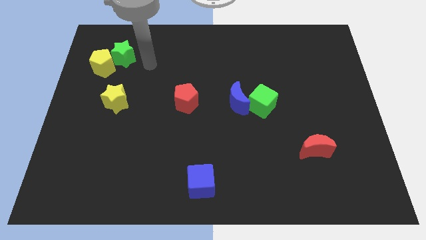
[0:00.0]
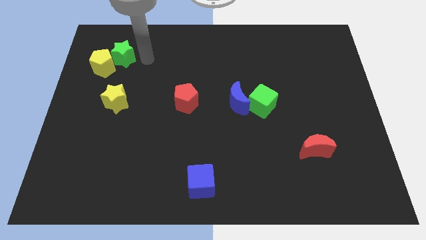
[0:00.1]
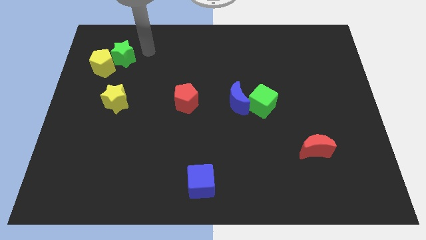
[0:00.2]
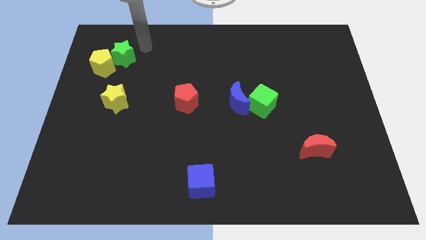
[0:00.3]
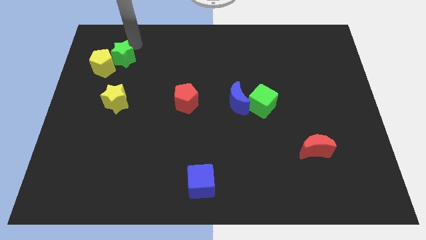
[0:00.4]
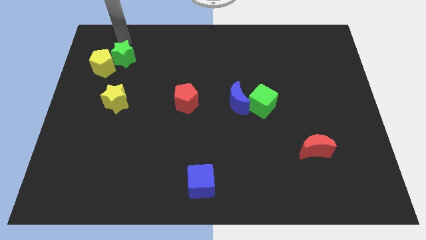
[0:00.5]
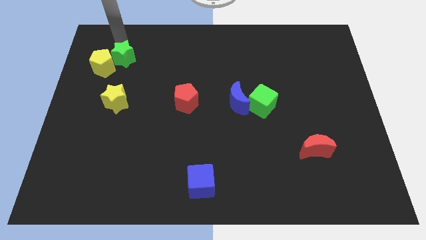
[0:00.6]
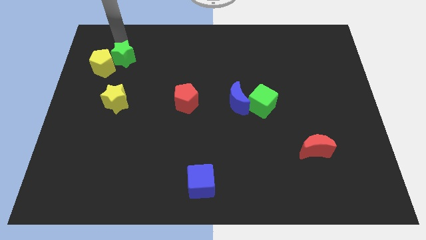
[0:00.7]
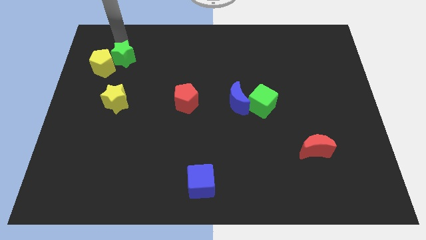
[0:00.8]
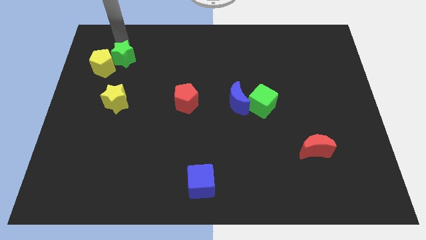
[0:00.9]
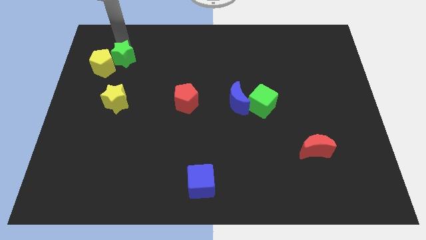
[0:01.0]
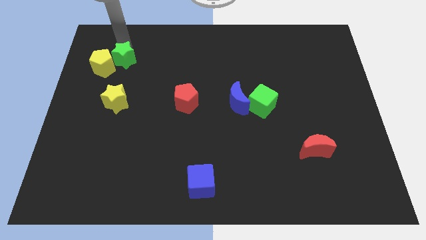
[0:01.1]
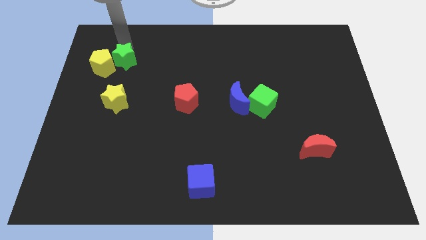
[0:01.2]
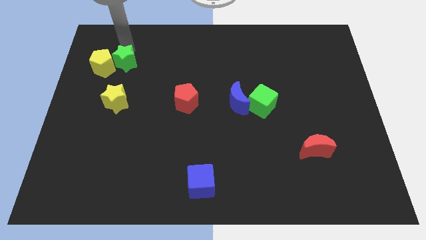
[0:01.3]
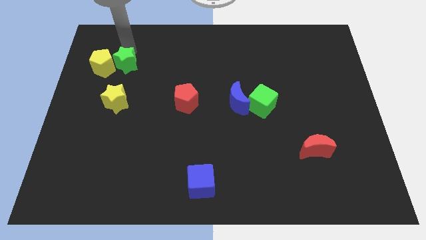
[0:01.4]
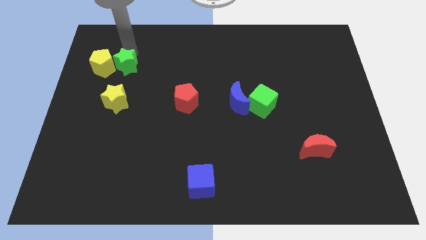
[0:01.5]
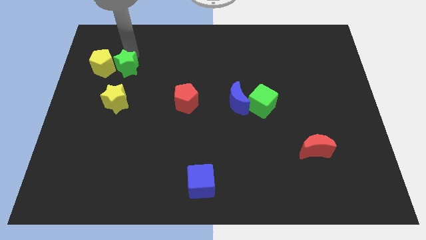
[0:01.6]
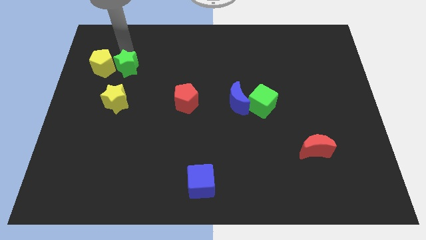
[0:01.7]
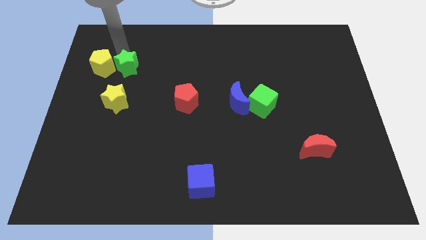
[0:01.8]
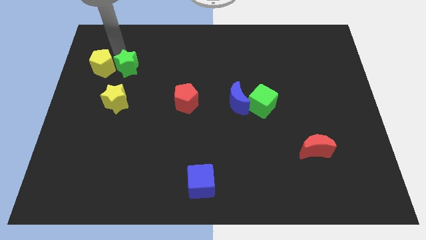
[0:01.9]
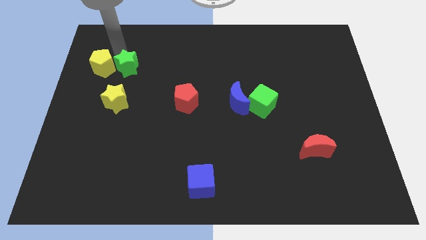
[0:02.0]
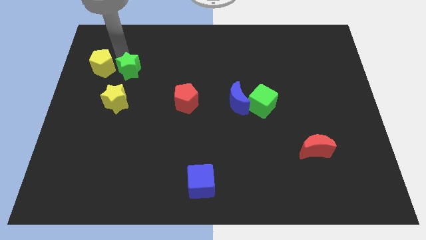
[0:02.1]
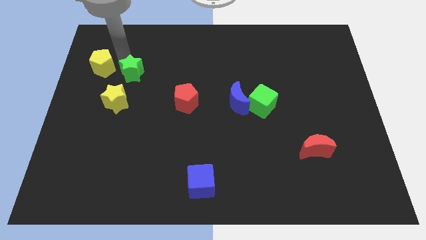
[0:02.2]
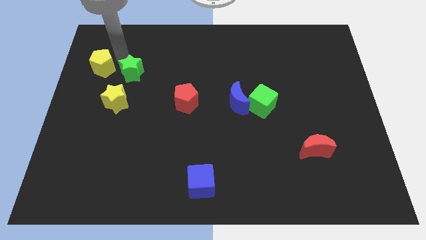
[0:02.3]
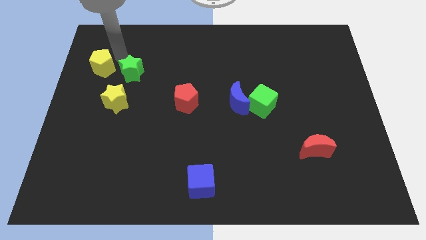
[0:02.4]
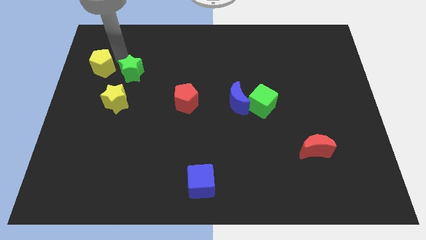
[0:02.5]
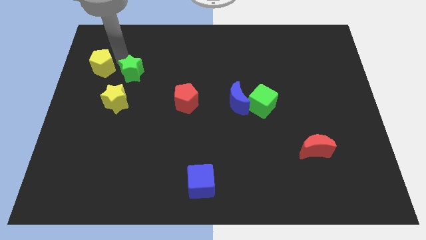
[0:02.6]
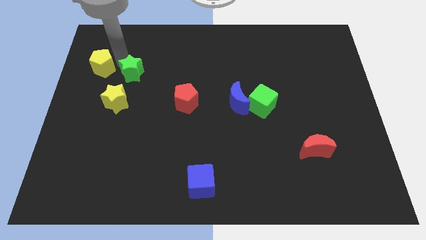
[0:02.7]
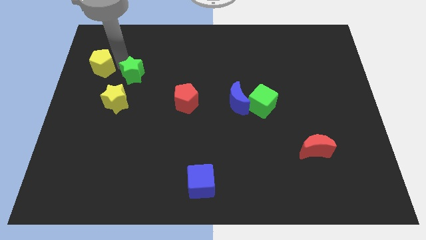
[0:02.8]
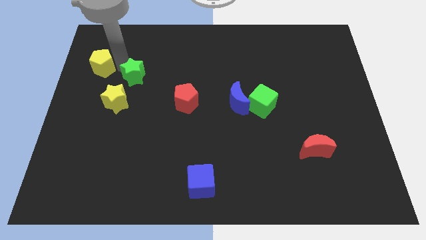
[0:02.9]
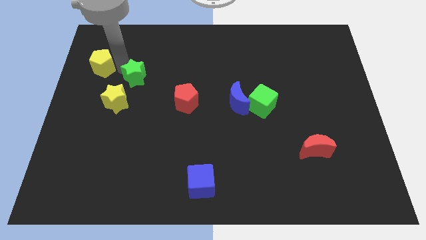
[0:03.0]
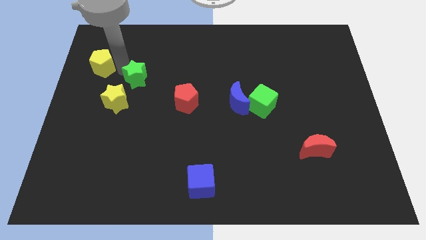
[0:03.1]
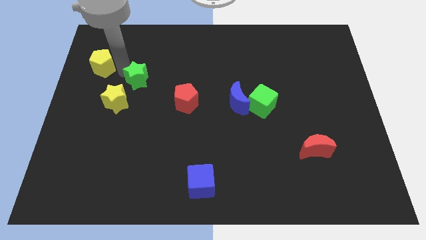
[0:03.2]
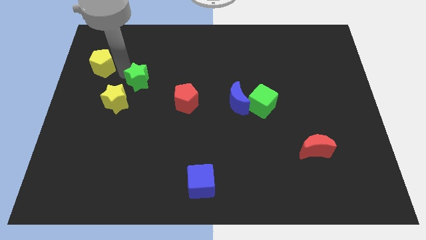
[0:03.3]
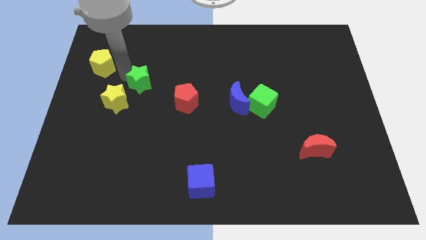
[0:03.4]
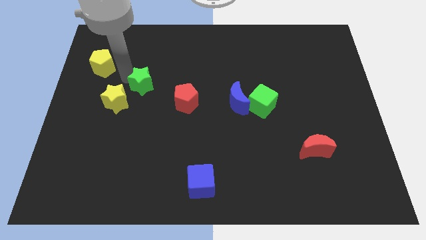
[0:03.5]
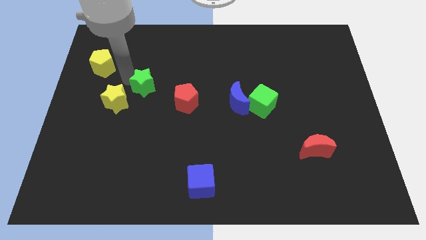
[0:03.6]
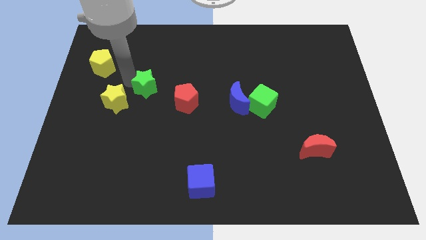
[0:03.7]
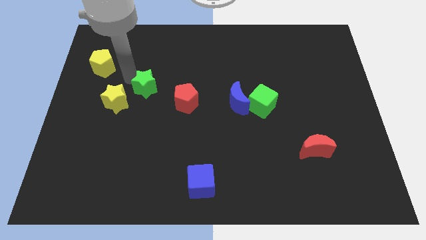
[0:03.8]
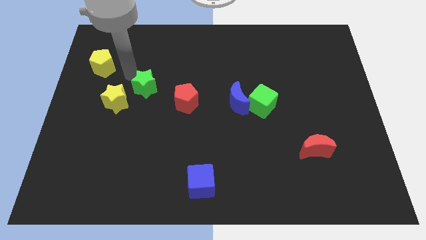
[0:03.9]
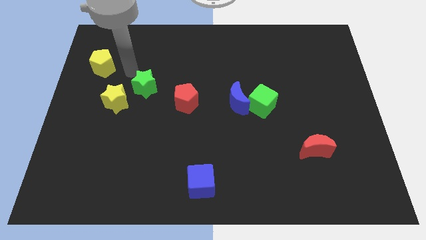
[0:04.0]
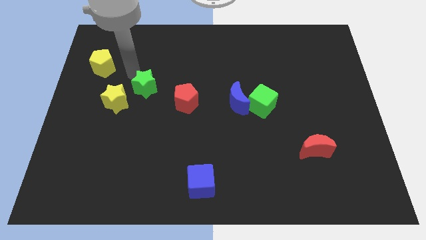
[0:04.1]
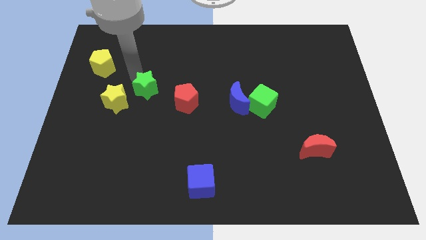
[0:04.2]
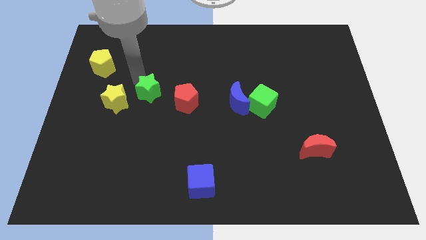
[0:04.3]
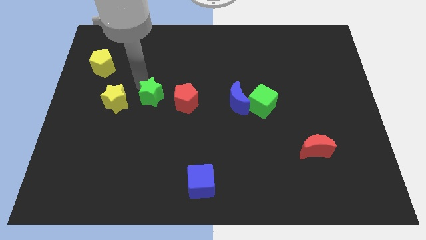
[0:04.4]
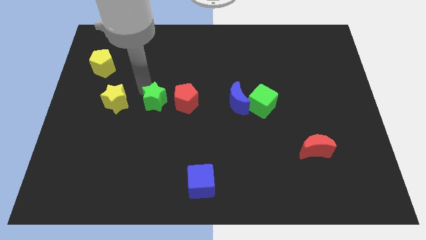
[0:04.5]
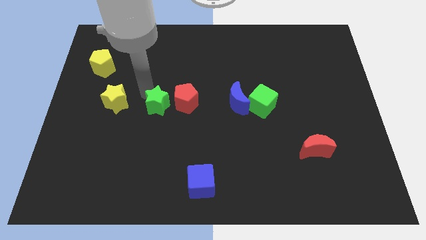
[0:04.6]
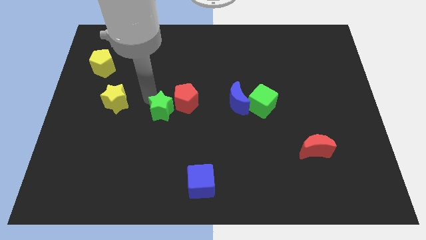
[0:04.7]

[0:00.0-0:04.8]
move the green star down and then right

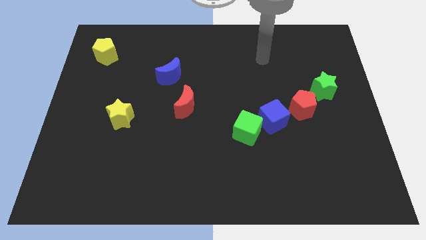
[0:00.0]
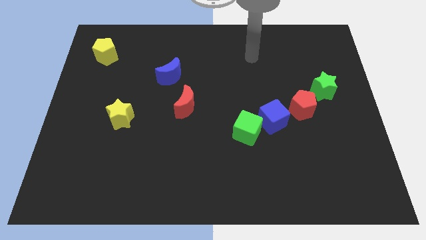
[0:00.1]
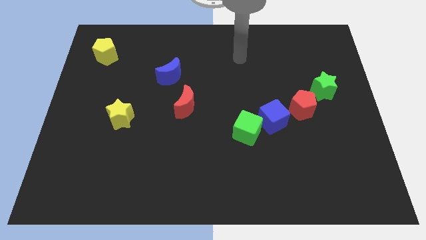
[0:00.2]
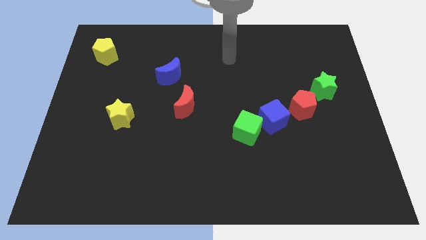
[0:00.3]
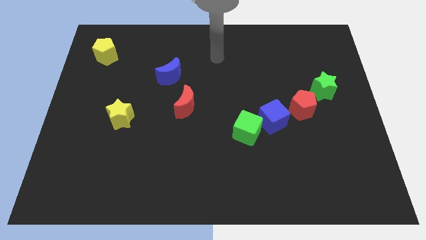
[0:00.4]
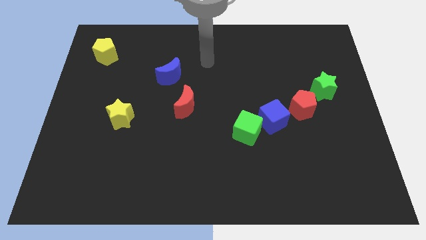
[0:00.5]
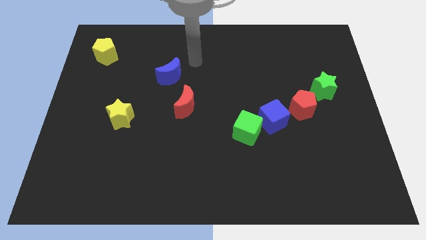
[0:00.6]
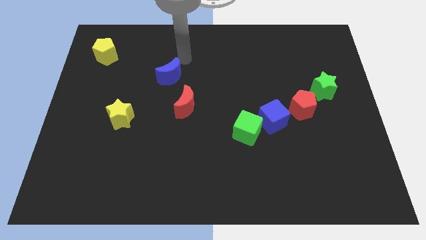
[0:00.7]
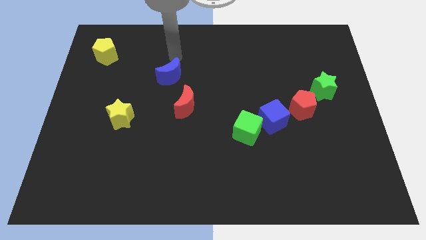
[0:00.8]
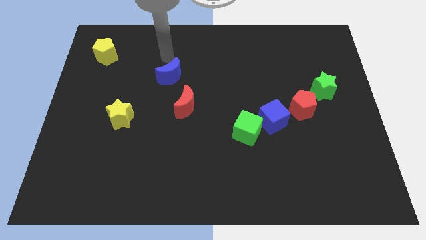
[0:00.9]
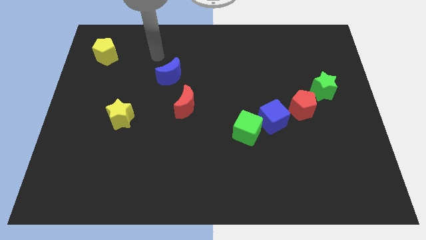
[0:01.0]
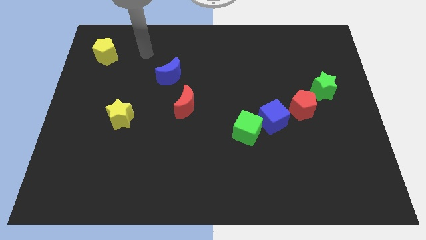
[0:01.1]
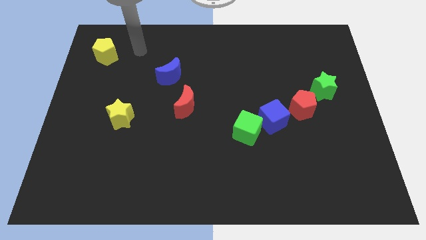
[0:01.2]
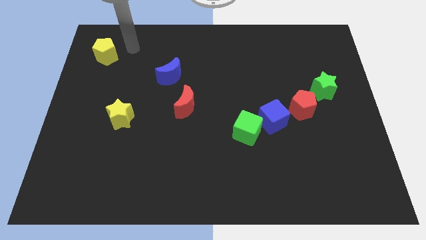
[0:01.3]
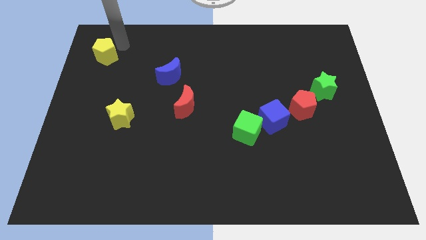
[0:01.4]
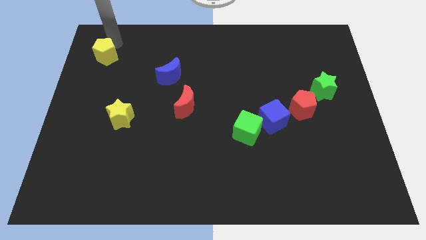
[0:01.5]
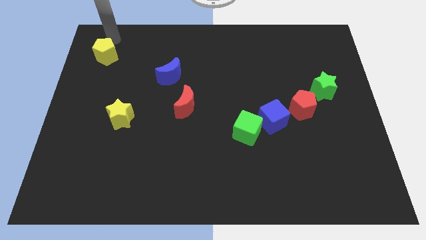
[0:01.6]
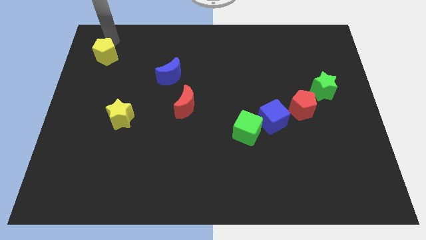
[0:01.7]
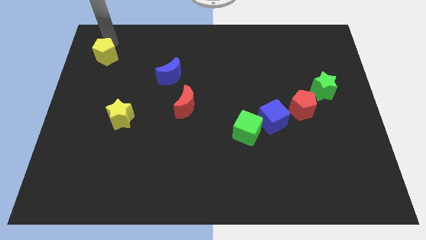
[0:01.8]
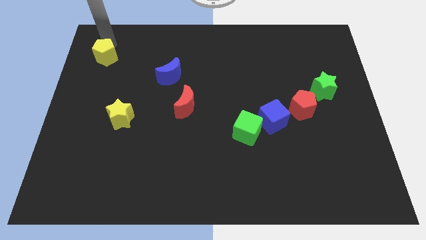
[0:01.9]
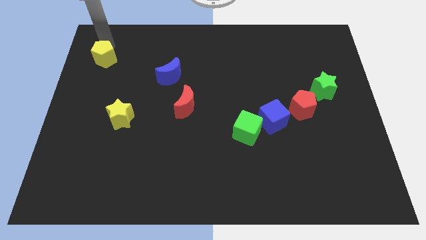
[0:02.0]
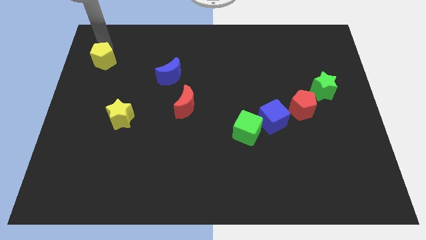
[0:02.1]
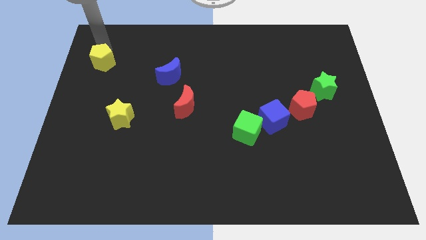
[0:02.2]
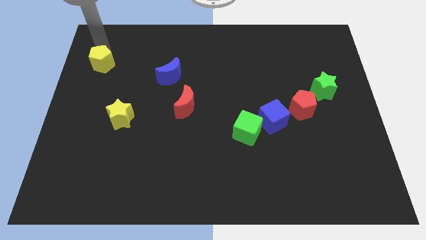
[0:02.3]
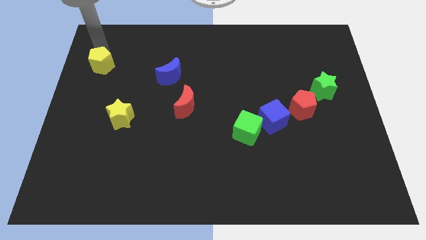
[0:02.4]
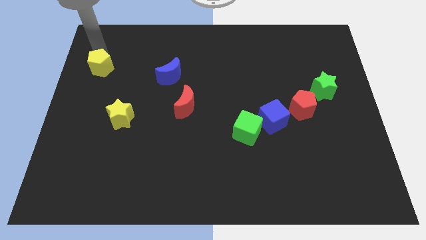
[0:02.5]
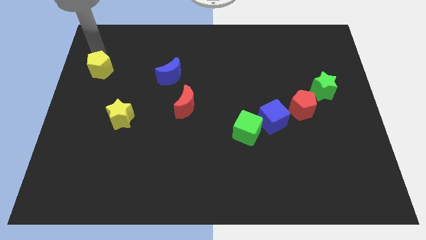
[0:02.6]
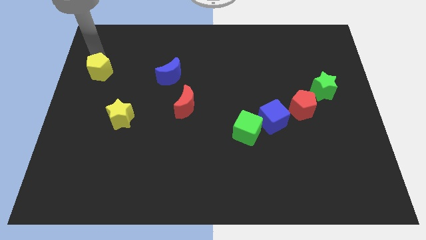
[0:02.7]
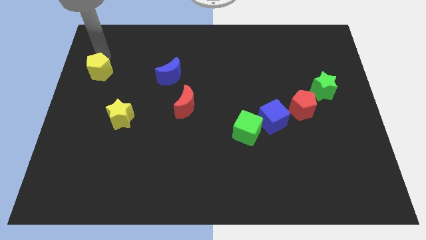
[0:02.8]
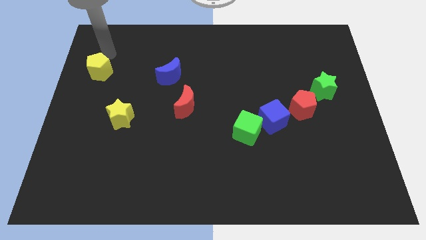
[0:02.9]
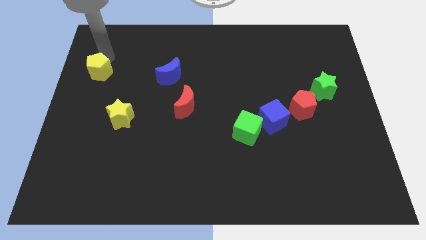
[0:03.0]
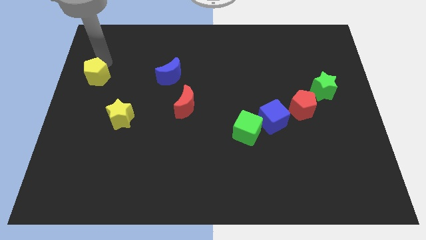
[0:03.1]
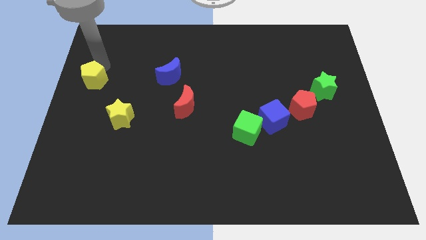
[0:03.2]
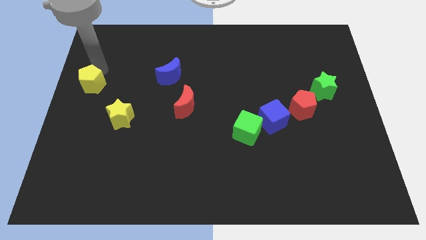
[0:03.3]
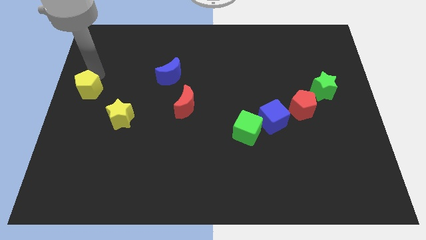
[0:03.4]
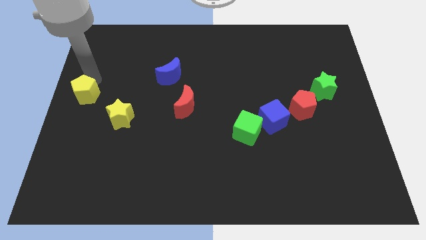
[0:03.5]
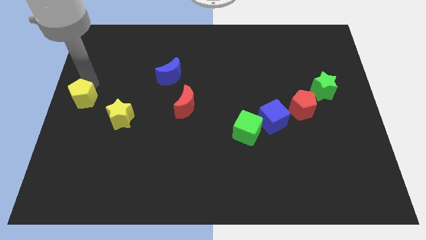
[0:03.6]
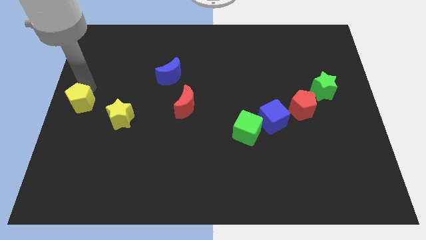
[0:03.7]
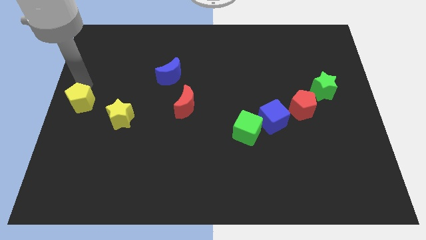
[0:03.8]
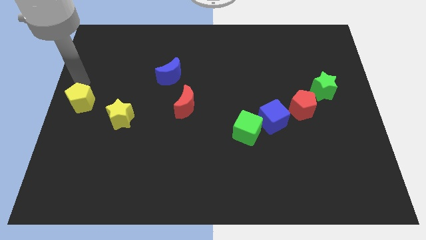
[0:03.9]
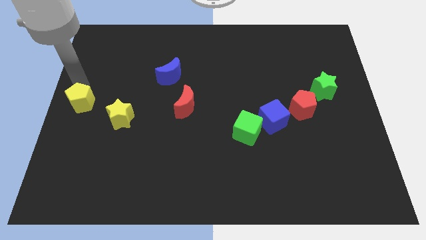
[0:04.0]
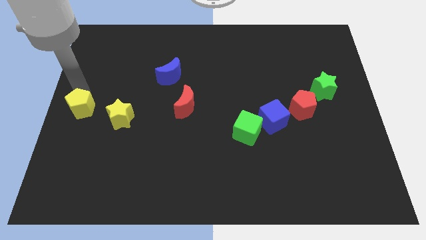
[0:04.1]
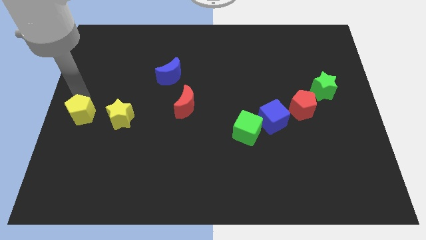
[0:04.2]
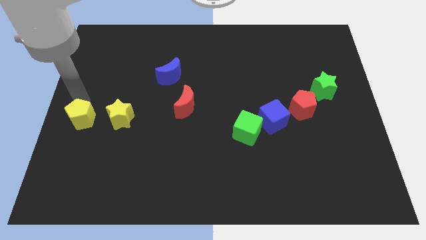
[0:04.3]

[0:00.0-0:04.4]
push the yellow pentagon down
